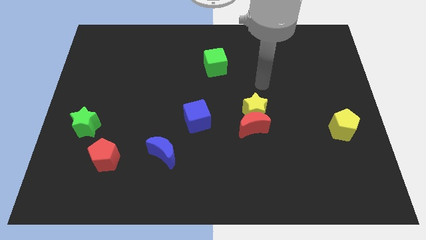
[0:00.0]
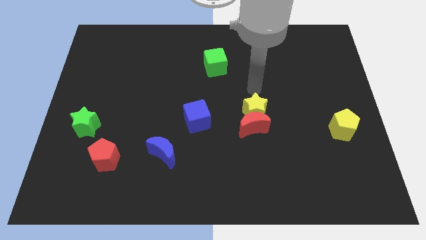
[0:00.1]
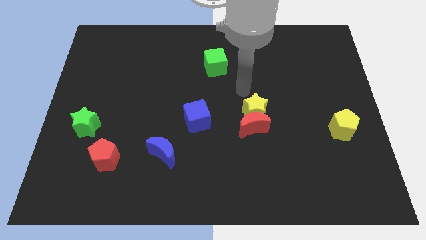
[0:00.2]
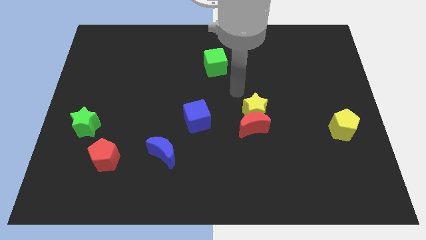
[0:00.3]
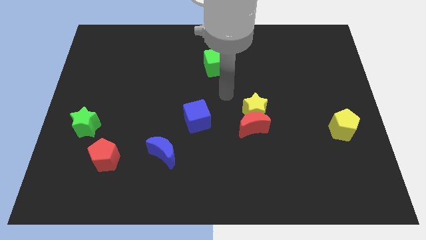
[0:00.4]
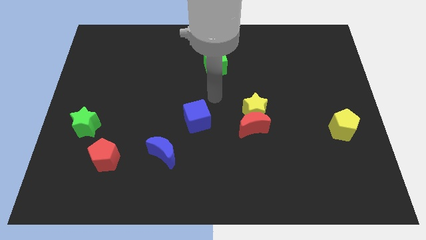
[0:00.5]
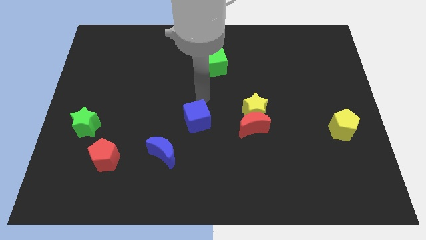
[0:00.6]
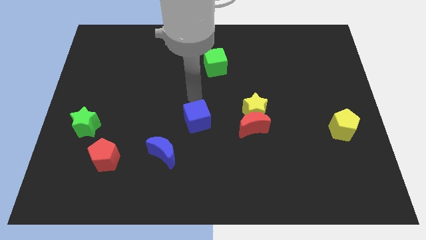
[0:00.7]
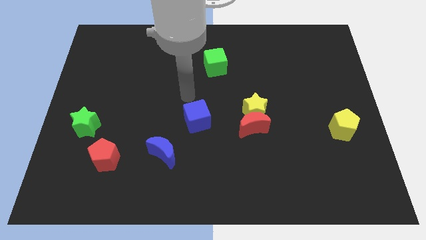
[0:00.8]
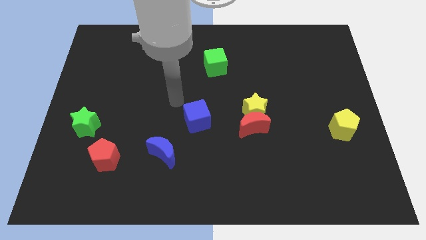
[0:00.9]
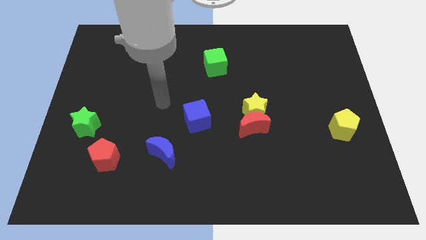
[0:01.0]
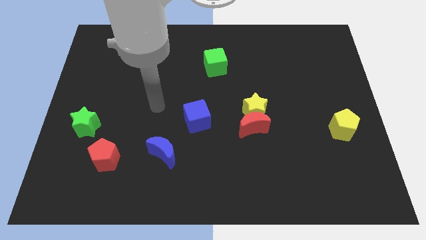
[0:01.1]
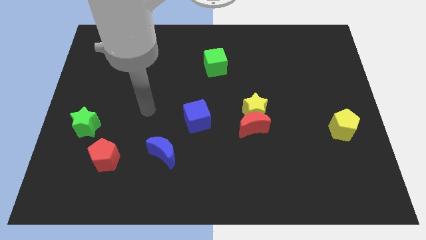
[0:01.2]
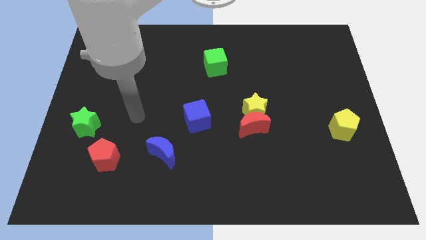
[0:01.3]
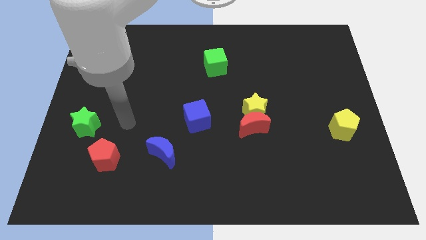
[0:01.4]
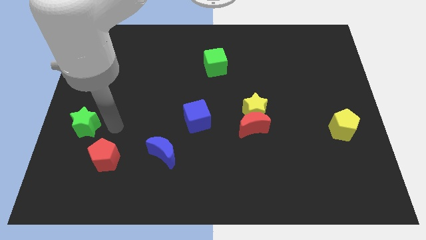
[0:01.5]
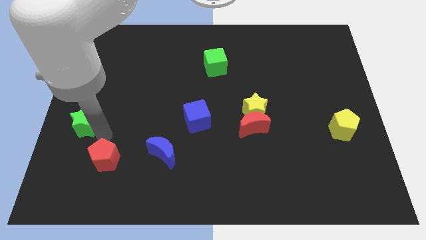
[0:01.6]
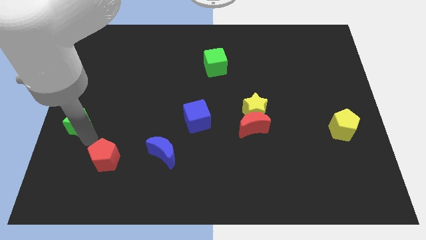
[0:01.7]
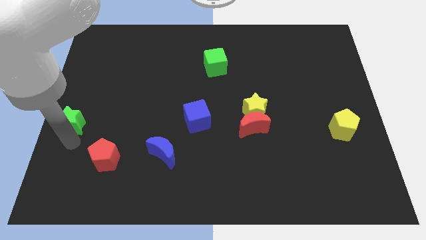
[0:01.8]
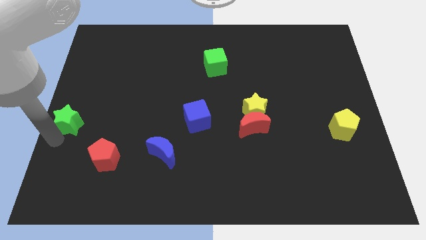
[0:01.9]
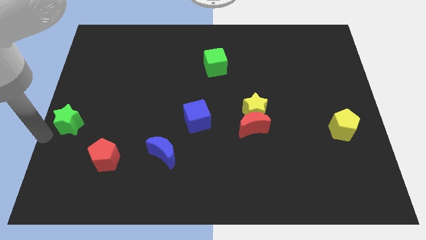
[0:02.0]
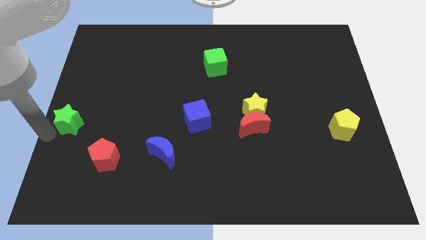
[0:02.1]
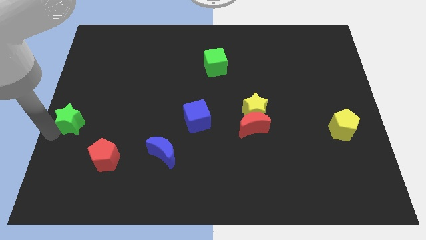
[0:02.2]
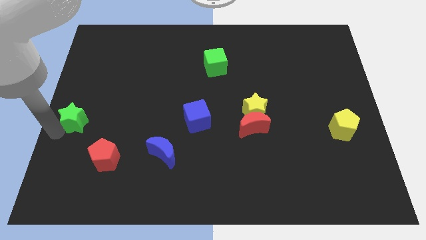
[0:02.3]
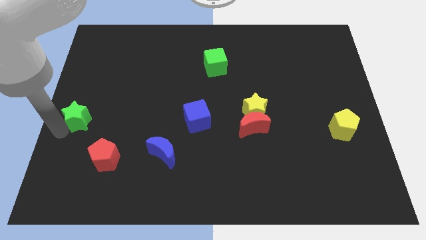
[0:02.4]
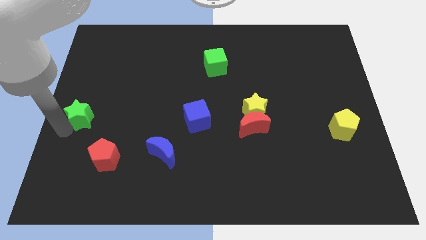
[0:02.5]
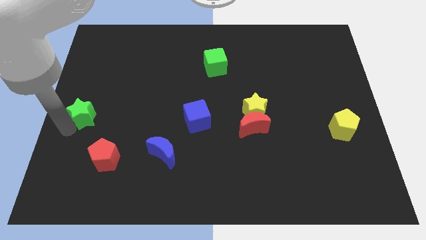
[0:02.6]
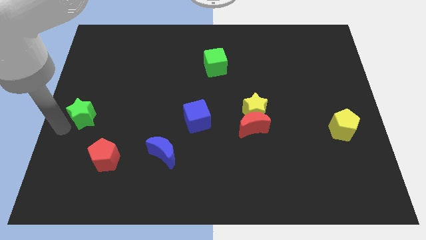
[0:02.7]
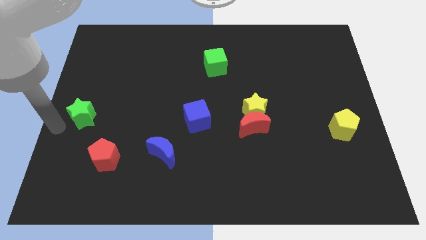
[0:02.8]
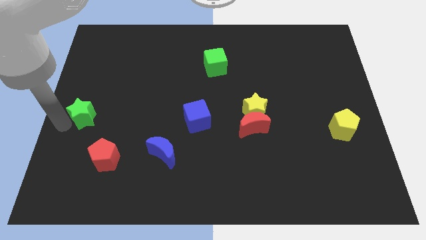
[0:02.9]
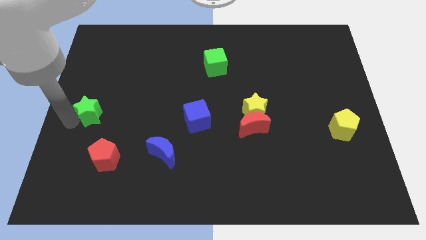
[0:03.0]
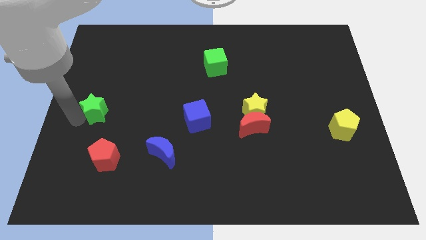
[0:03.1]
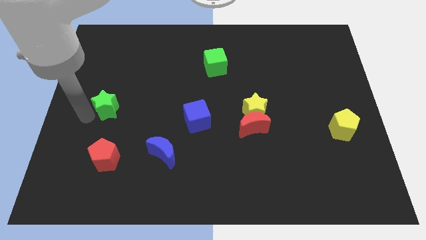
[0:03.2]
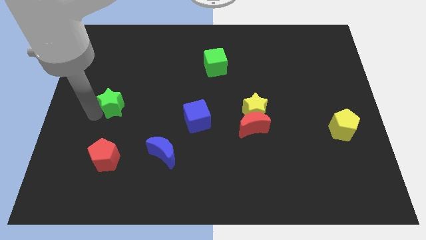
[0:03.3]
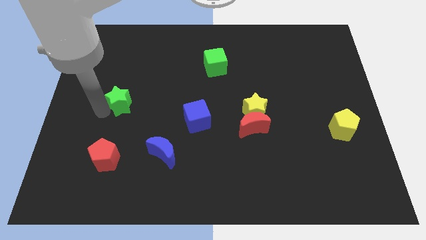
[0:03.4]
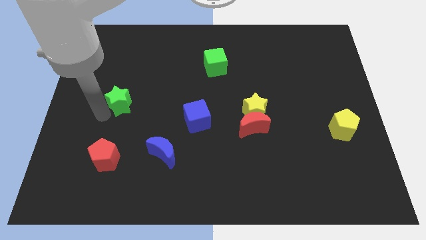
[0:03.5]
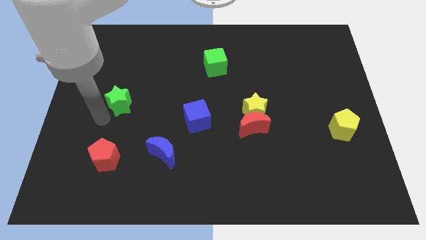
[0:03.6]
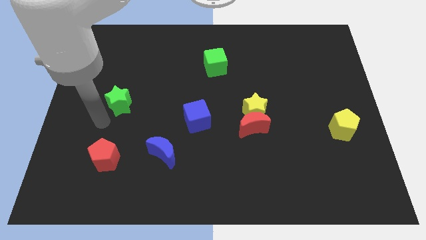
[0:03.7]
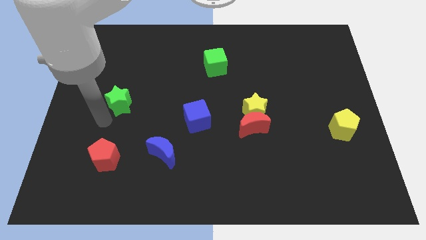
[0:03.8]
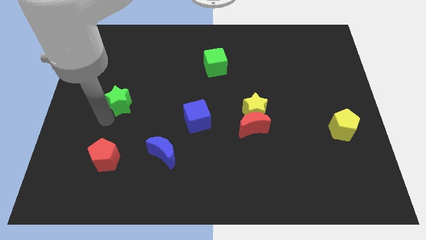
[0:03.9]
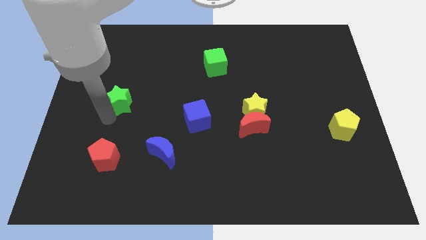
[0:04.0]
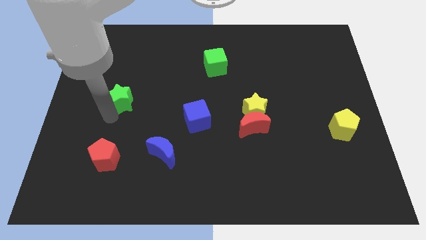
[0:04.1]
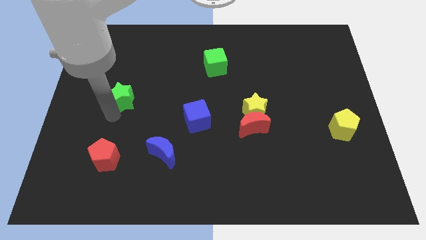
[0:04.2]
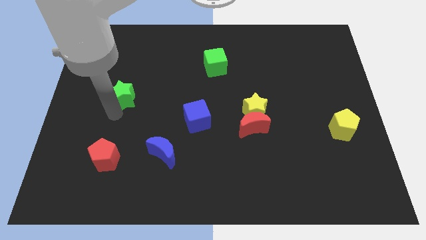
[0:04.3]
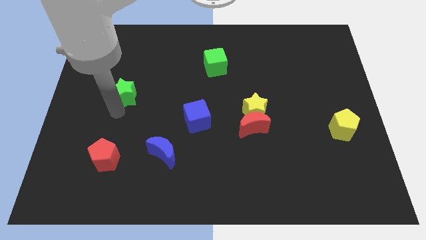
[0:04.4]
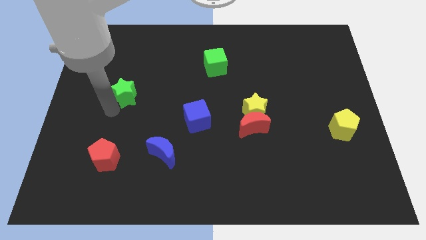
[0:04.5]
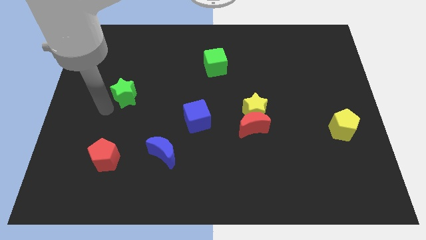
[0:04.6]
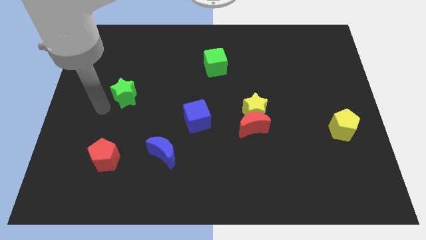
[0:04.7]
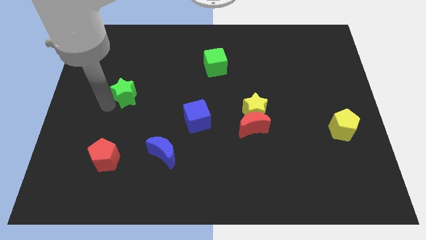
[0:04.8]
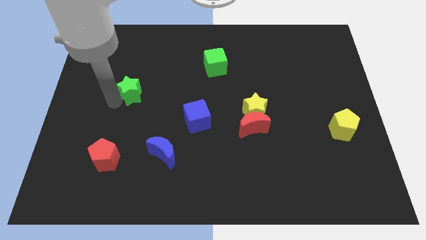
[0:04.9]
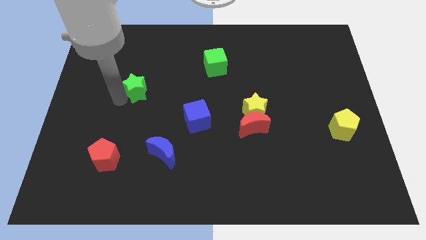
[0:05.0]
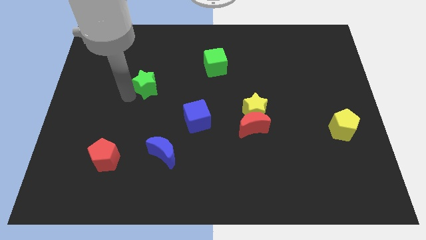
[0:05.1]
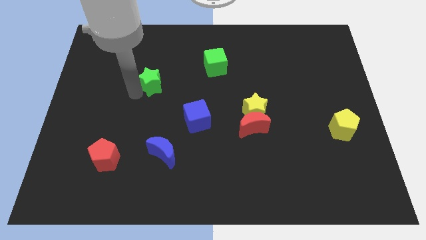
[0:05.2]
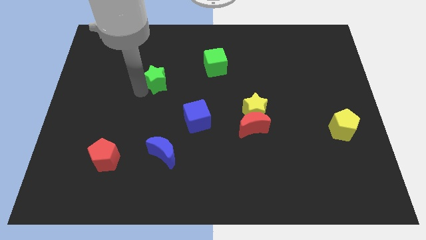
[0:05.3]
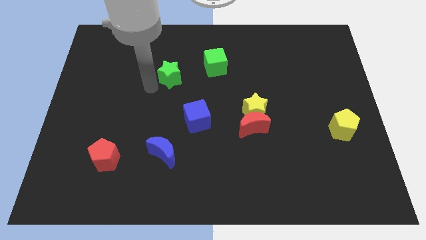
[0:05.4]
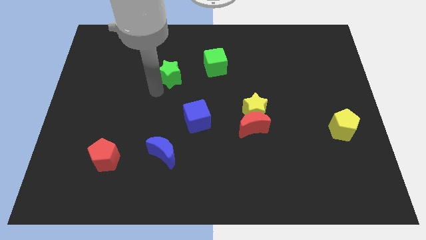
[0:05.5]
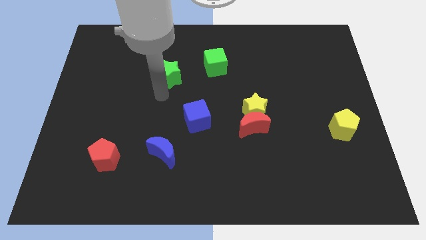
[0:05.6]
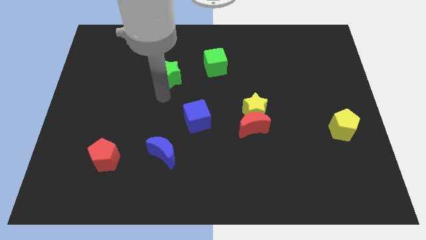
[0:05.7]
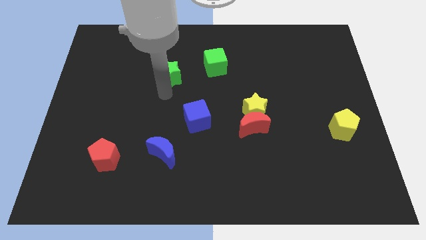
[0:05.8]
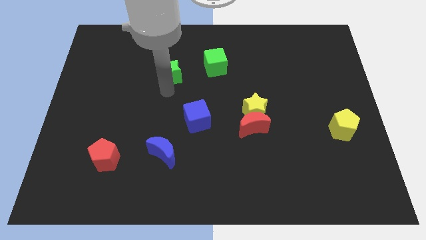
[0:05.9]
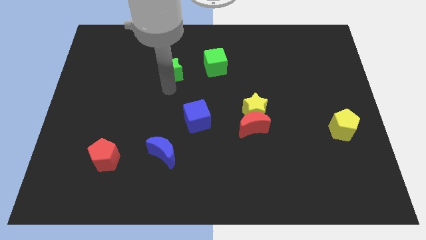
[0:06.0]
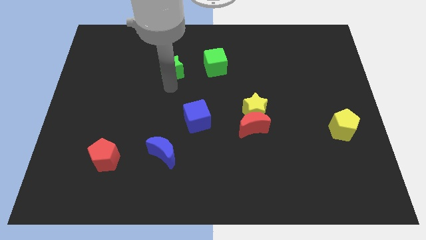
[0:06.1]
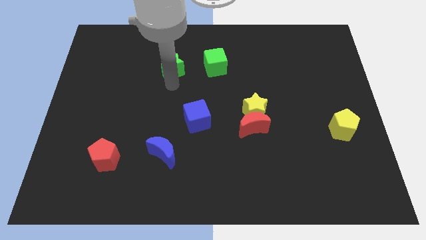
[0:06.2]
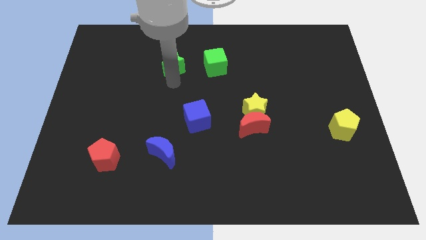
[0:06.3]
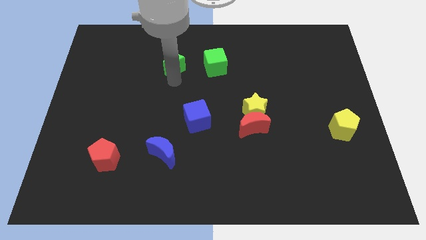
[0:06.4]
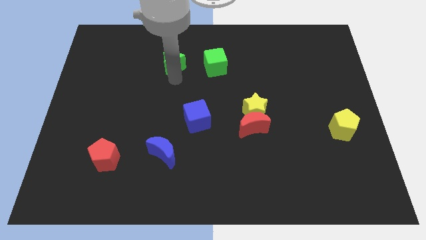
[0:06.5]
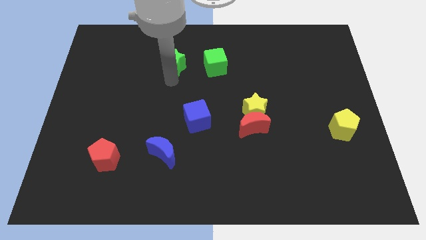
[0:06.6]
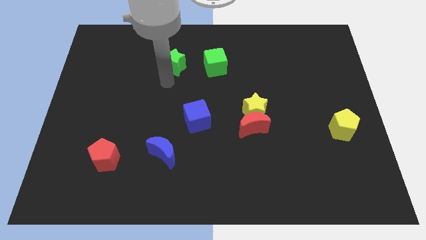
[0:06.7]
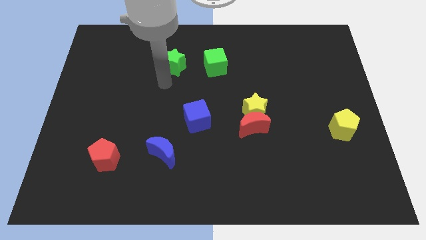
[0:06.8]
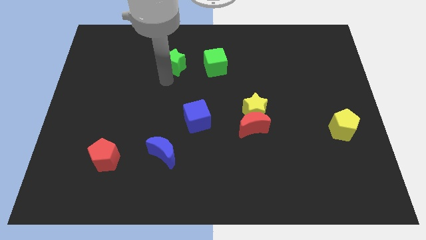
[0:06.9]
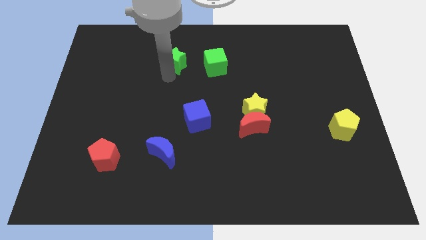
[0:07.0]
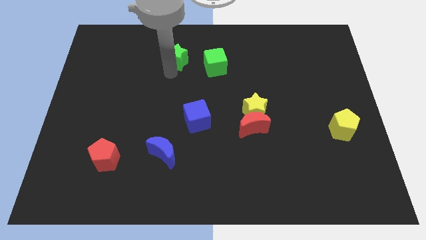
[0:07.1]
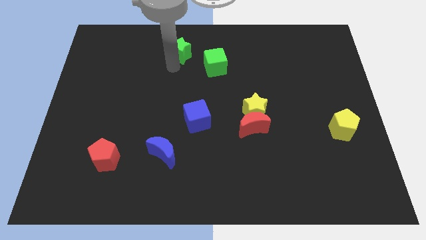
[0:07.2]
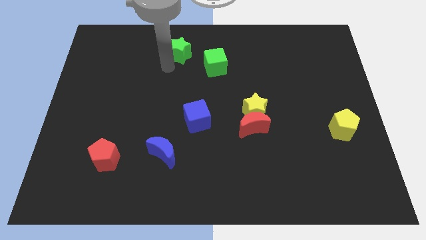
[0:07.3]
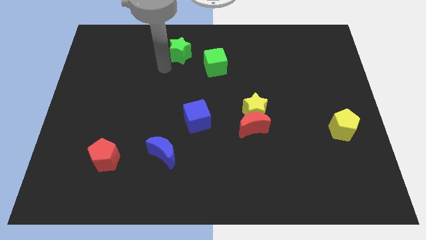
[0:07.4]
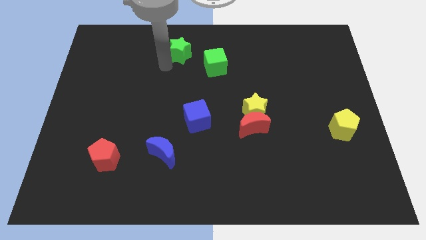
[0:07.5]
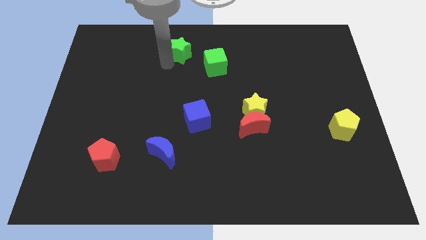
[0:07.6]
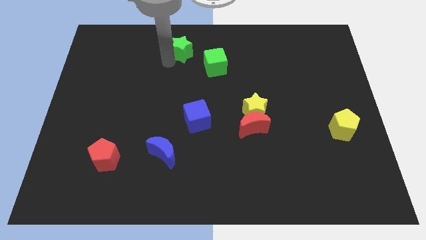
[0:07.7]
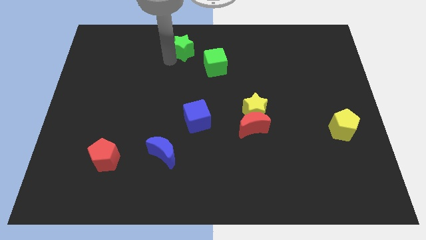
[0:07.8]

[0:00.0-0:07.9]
put the green star to the top
